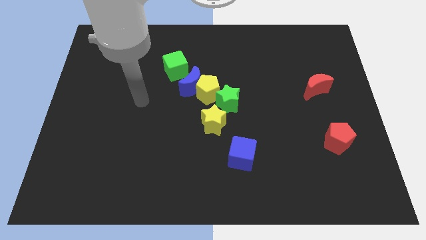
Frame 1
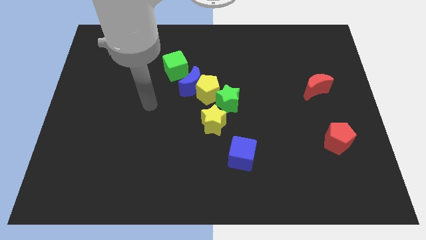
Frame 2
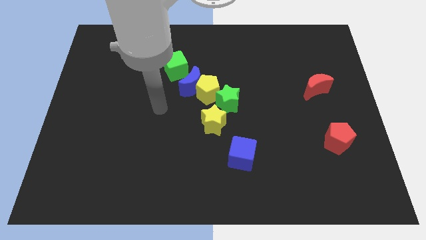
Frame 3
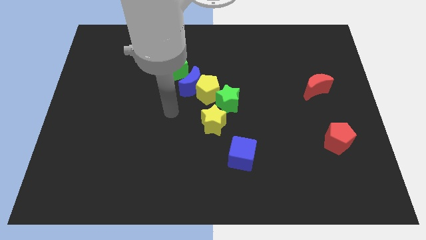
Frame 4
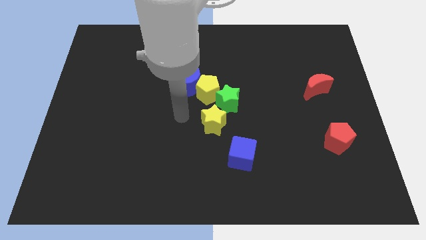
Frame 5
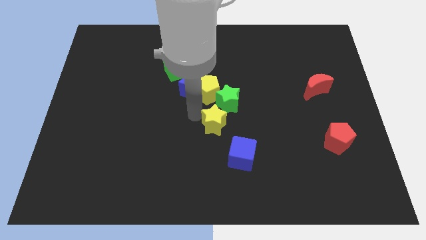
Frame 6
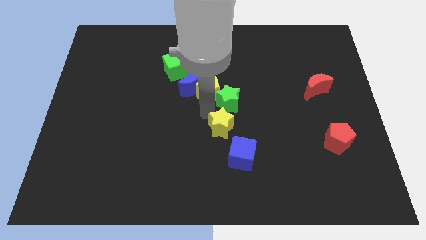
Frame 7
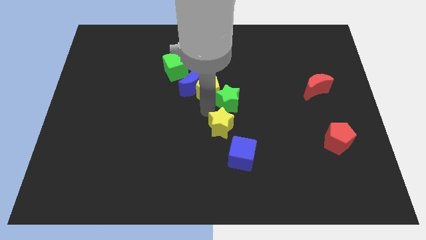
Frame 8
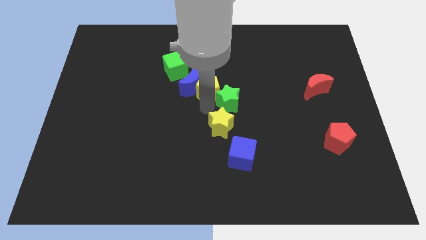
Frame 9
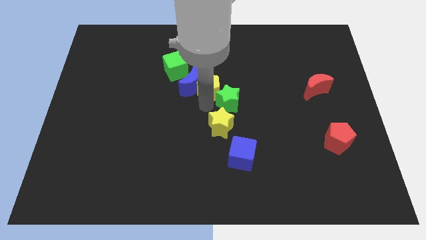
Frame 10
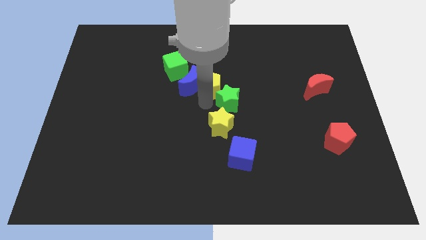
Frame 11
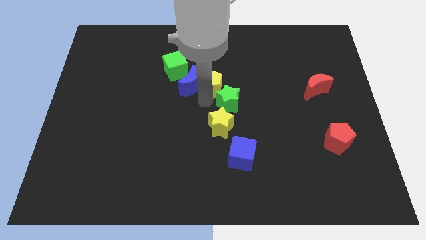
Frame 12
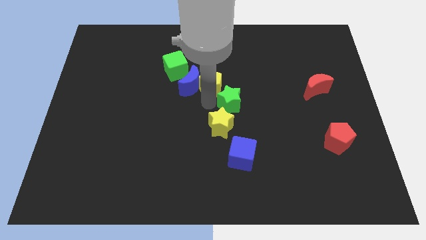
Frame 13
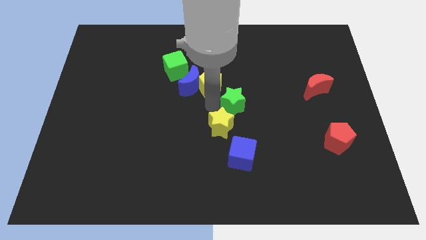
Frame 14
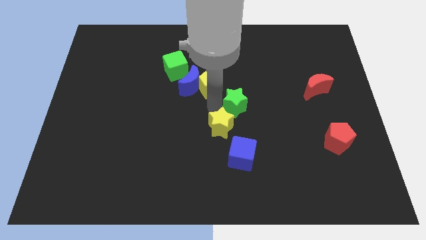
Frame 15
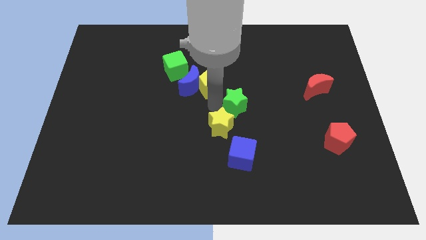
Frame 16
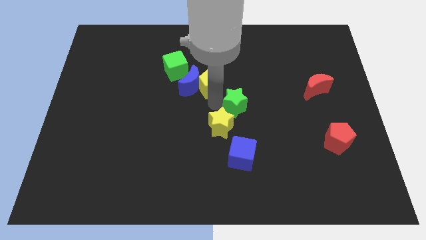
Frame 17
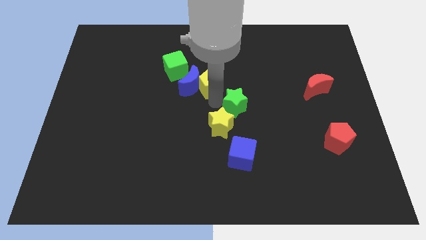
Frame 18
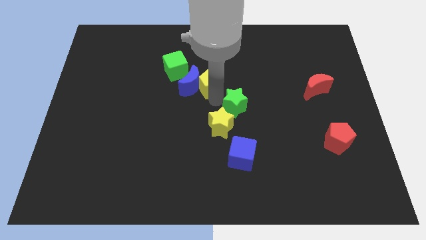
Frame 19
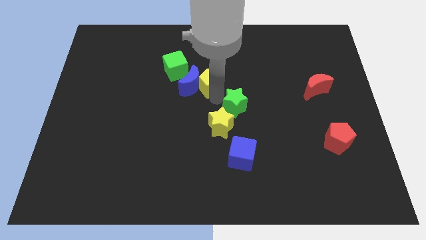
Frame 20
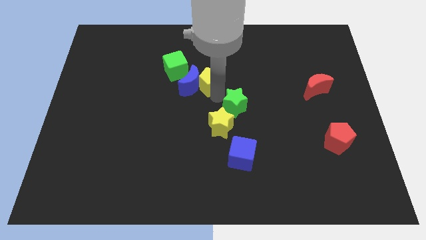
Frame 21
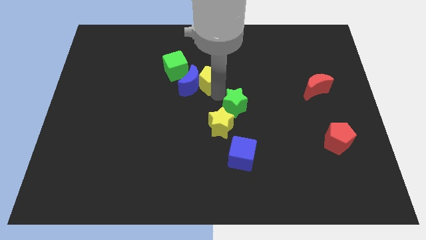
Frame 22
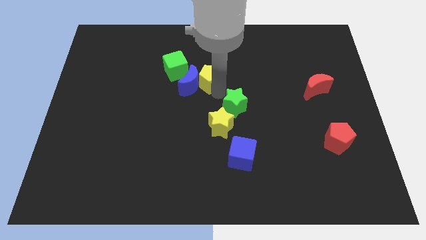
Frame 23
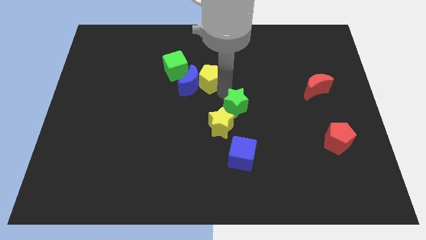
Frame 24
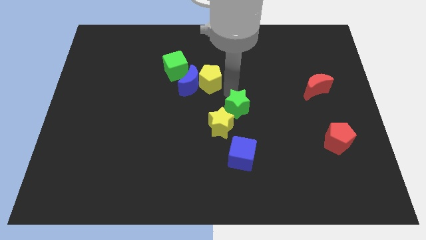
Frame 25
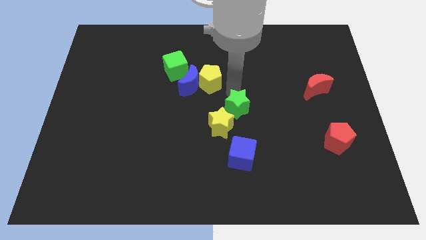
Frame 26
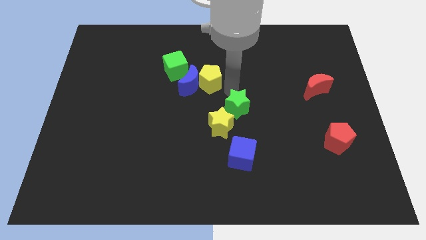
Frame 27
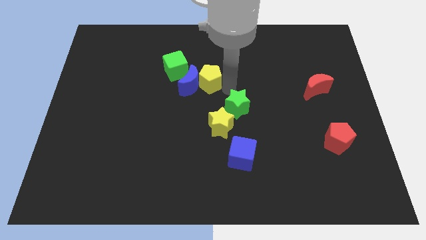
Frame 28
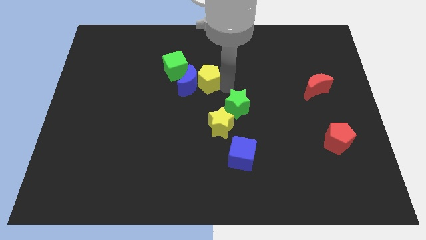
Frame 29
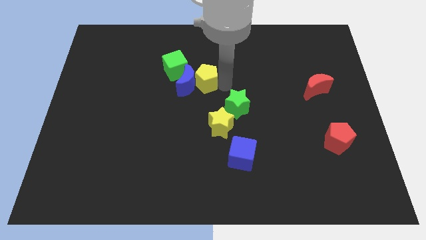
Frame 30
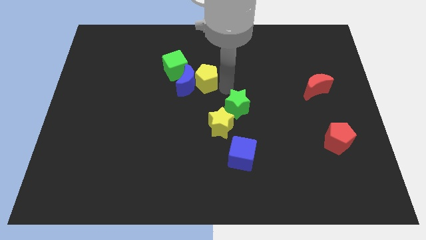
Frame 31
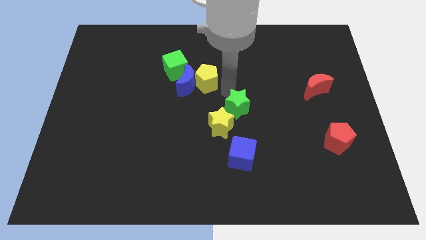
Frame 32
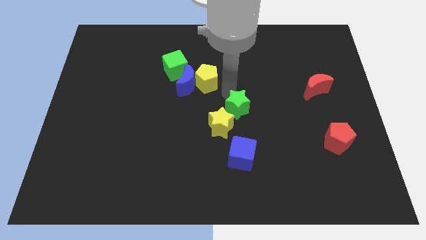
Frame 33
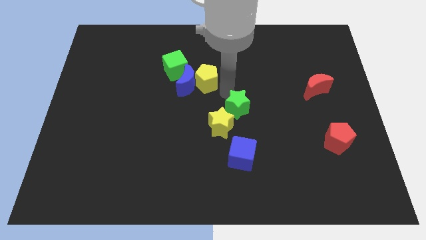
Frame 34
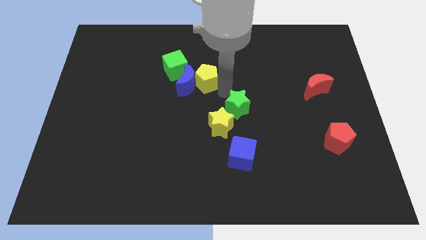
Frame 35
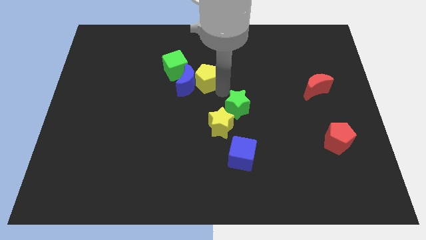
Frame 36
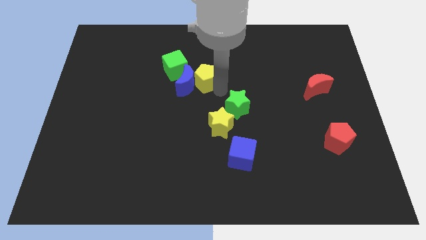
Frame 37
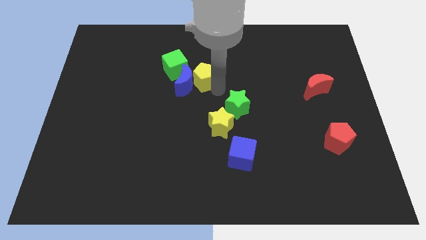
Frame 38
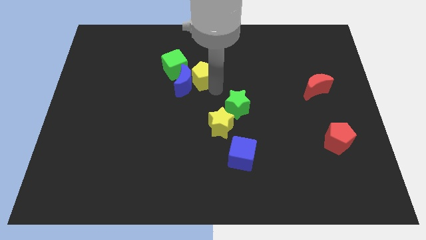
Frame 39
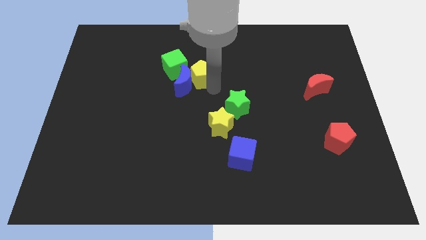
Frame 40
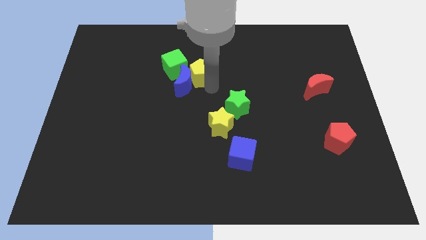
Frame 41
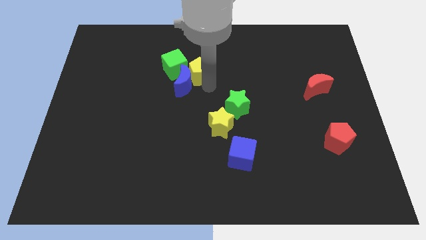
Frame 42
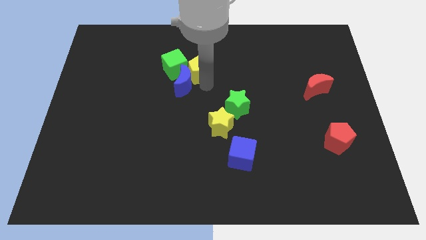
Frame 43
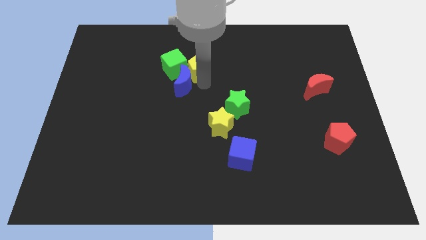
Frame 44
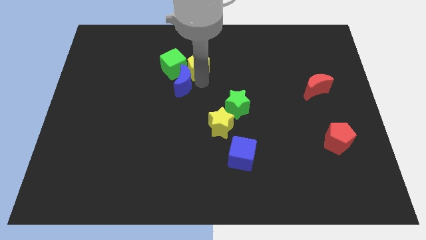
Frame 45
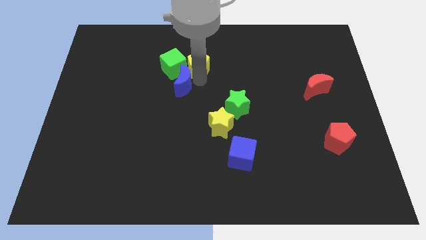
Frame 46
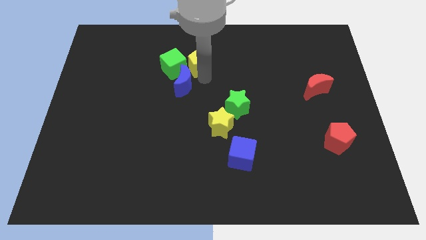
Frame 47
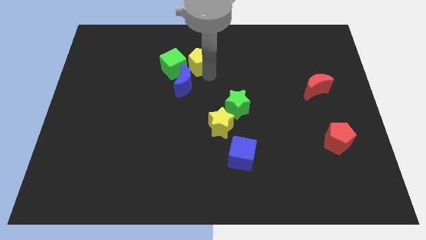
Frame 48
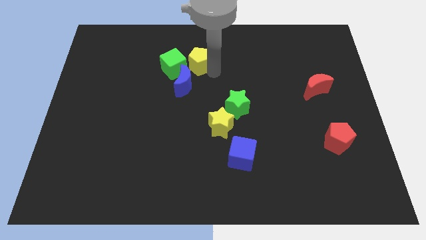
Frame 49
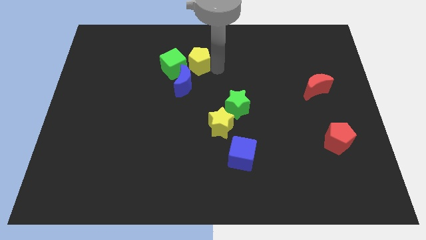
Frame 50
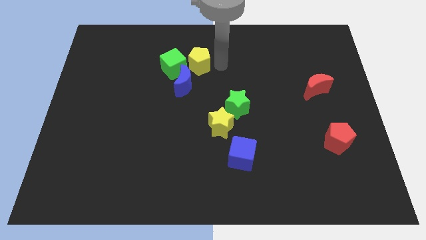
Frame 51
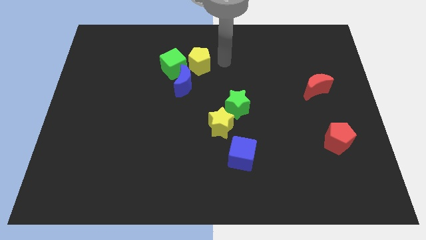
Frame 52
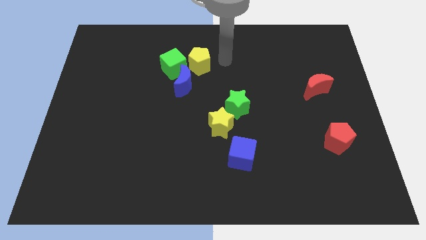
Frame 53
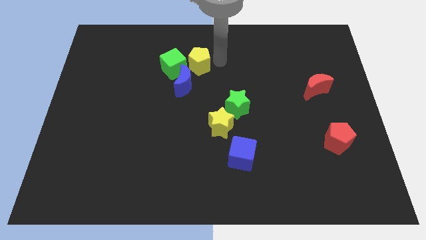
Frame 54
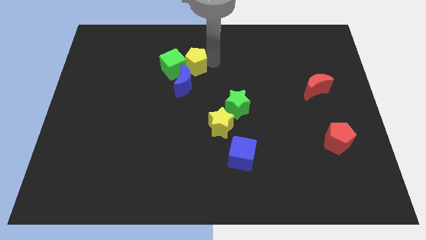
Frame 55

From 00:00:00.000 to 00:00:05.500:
put the yellow pentagon close to the green cube

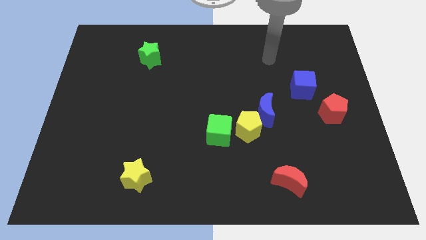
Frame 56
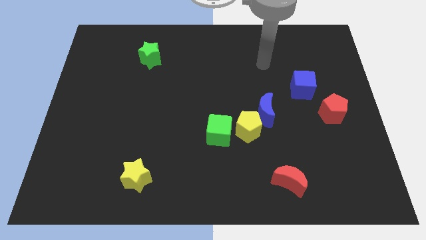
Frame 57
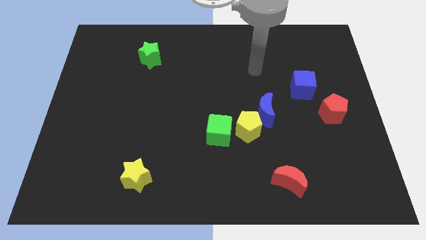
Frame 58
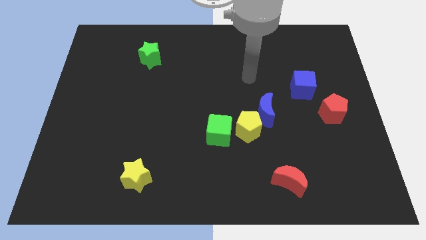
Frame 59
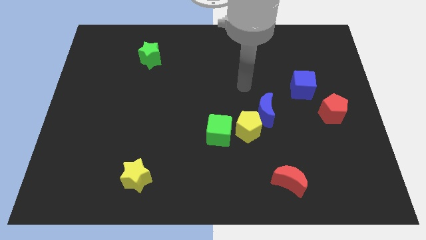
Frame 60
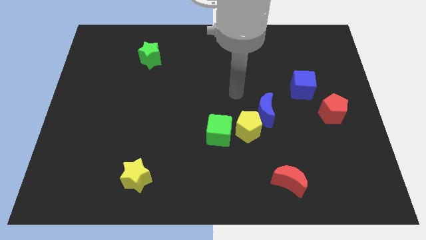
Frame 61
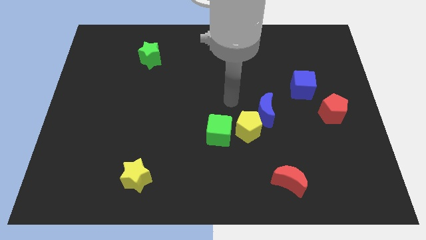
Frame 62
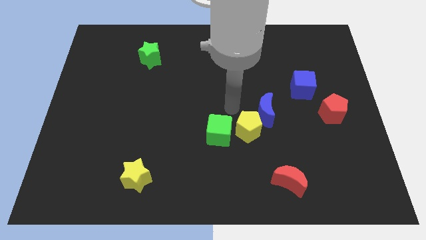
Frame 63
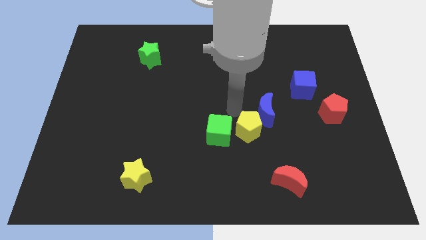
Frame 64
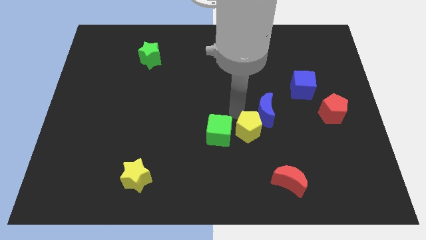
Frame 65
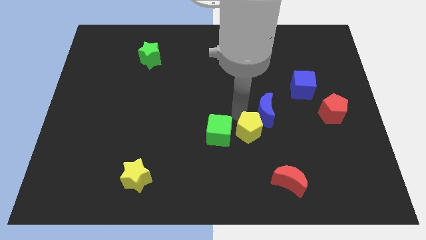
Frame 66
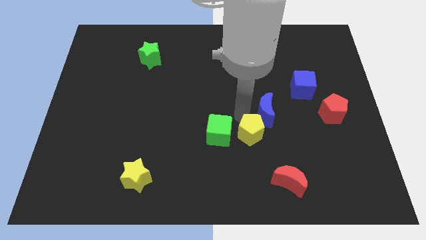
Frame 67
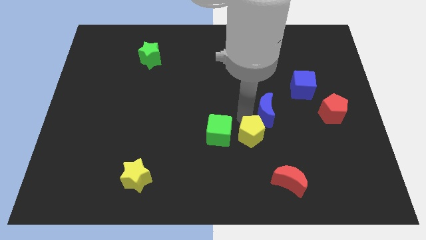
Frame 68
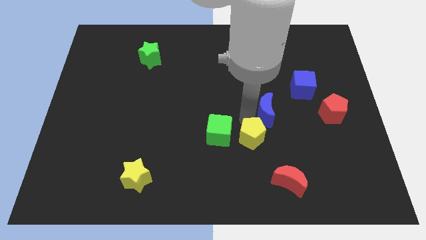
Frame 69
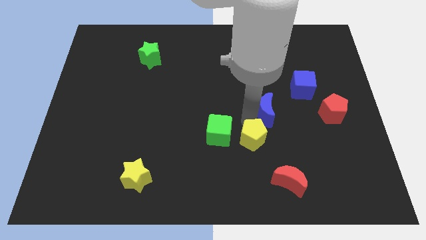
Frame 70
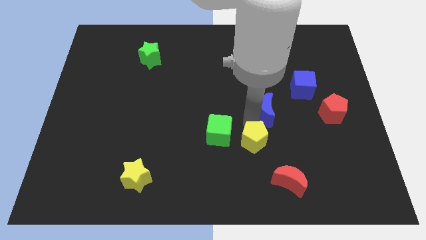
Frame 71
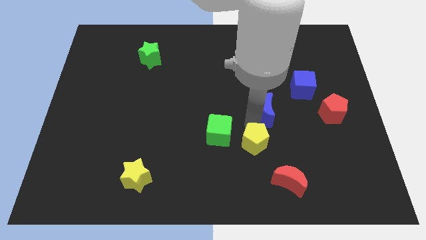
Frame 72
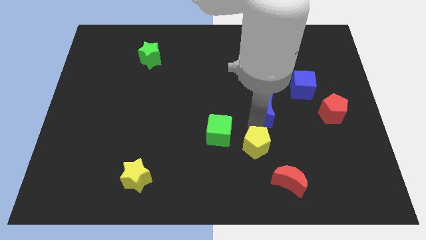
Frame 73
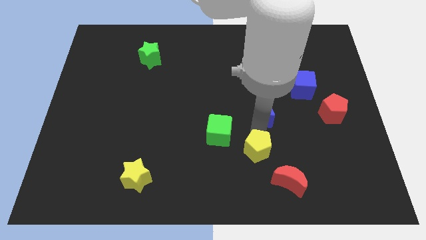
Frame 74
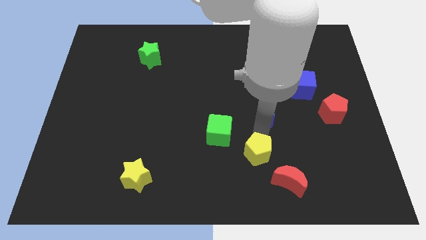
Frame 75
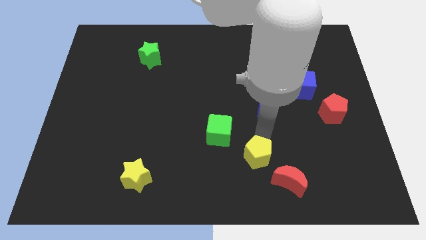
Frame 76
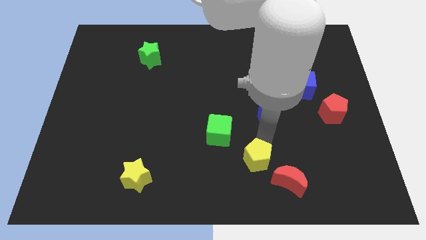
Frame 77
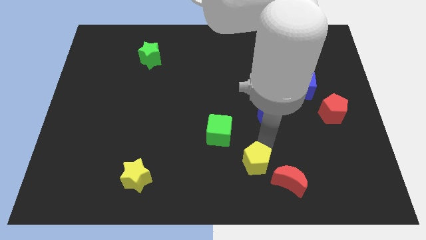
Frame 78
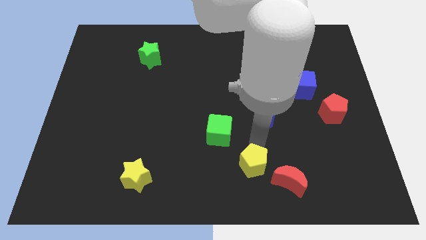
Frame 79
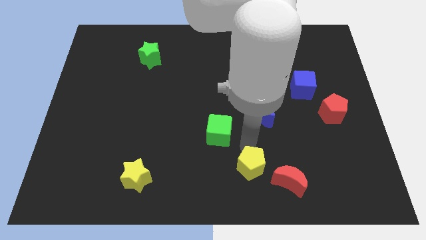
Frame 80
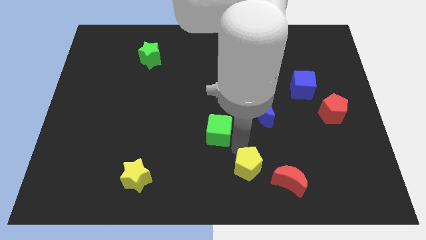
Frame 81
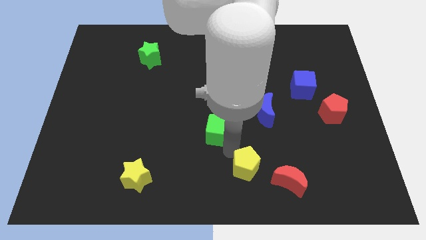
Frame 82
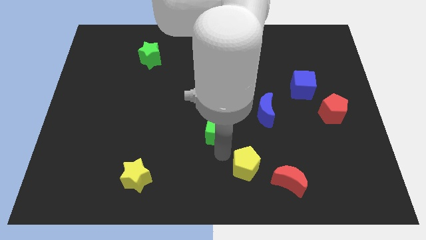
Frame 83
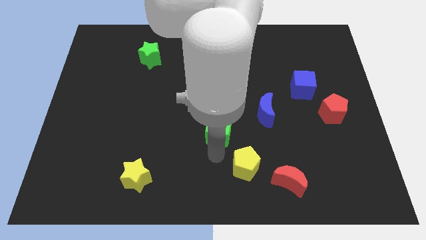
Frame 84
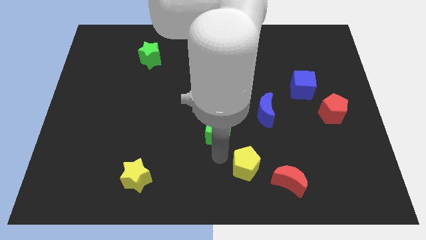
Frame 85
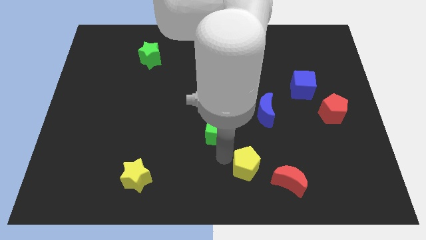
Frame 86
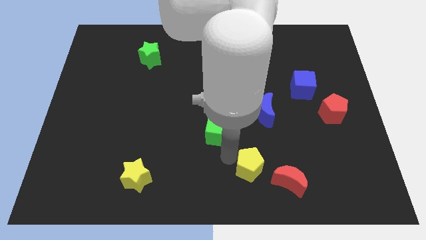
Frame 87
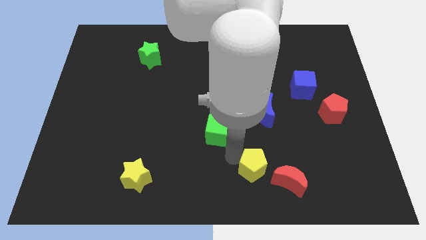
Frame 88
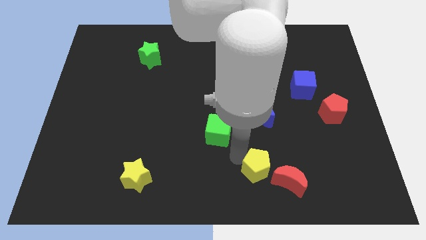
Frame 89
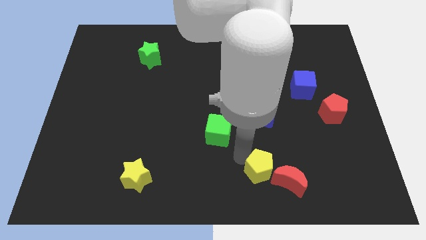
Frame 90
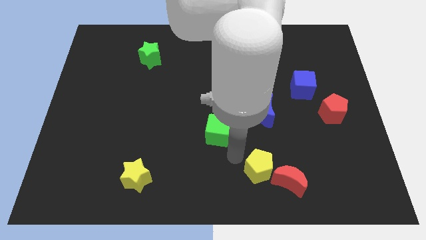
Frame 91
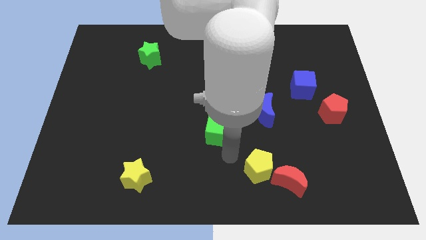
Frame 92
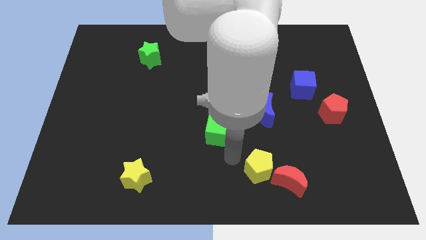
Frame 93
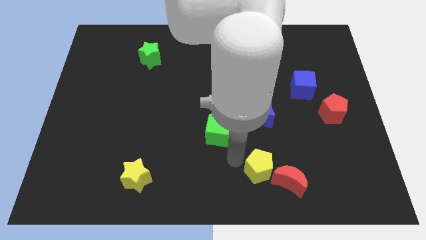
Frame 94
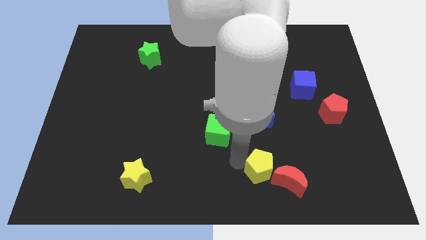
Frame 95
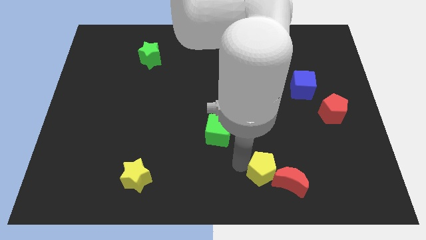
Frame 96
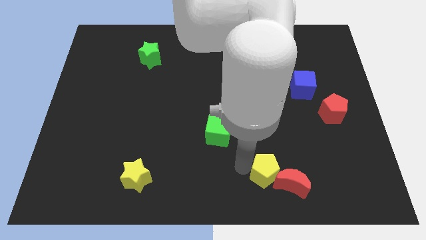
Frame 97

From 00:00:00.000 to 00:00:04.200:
push the yellow pentagon towards the red moon
